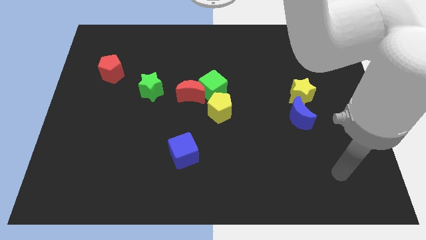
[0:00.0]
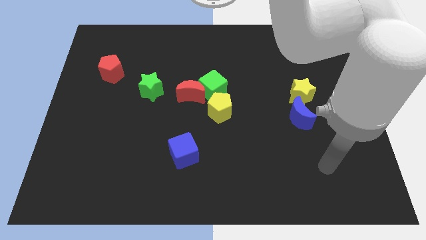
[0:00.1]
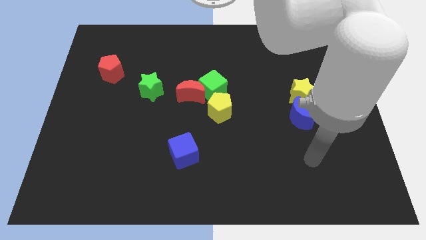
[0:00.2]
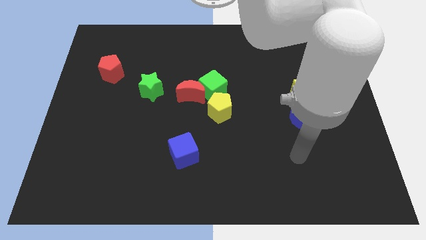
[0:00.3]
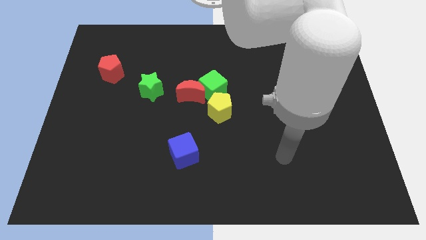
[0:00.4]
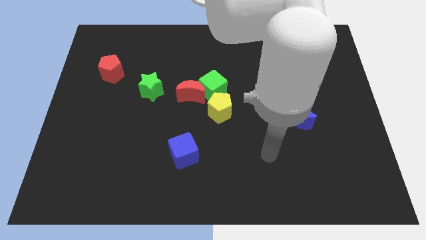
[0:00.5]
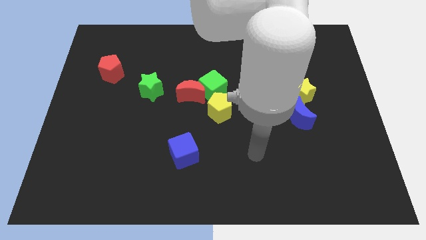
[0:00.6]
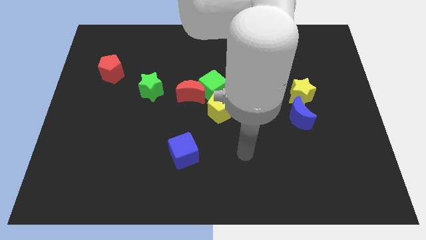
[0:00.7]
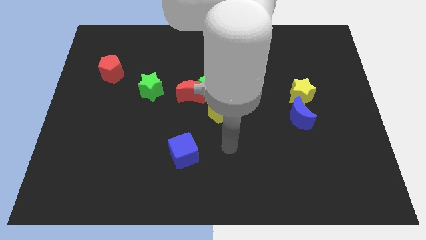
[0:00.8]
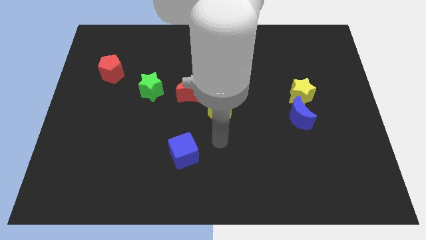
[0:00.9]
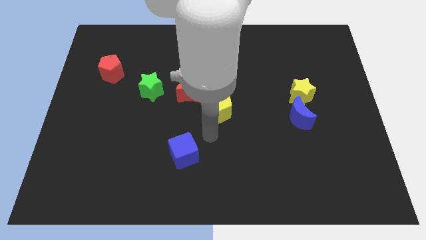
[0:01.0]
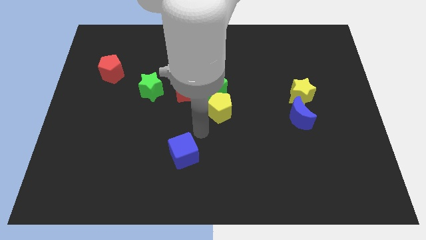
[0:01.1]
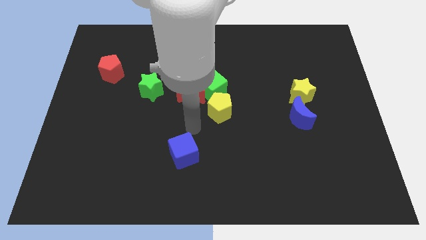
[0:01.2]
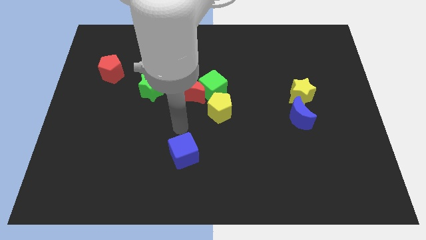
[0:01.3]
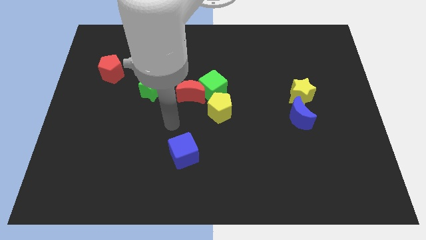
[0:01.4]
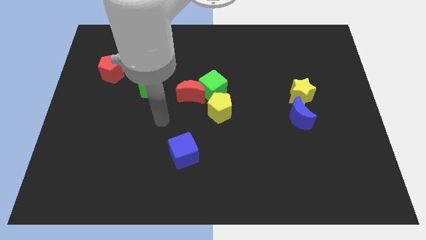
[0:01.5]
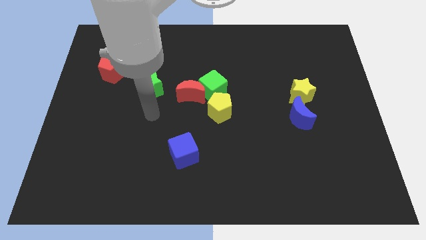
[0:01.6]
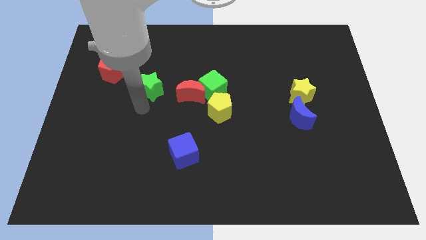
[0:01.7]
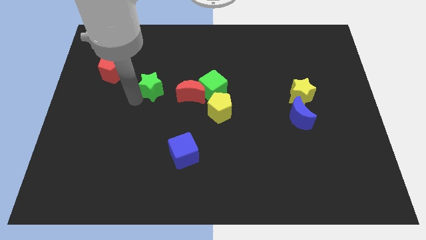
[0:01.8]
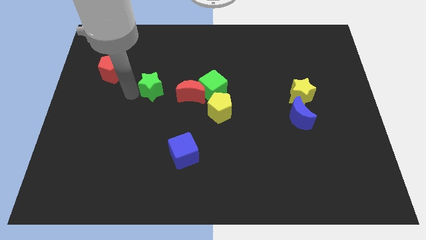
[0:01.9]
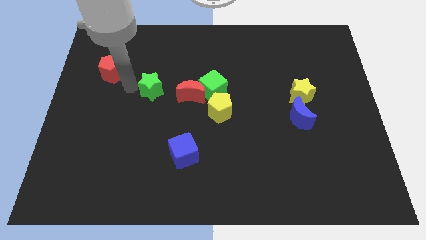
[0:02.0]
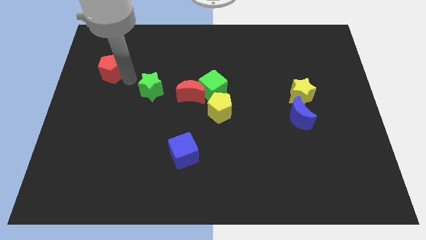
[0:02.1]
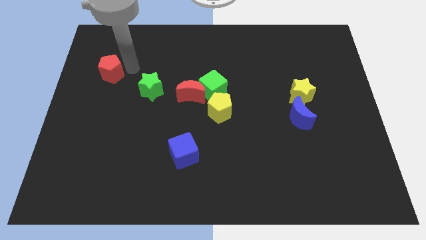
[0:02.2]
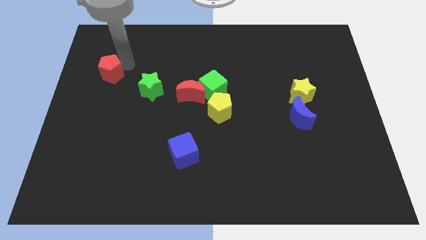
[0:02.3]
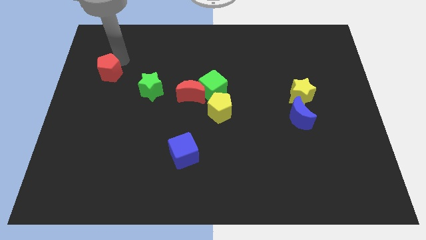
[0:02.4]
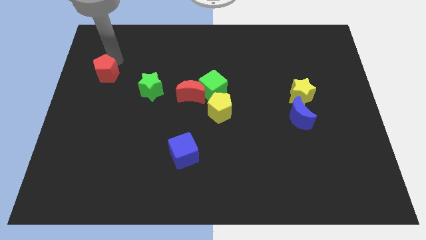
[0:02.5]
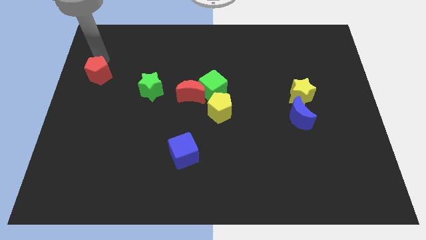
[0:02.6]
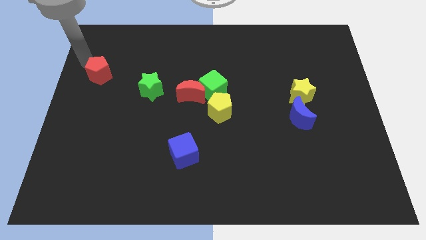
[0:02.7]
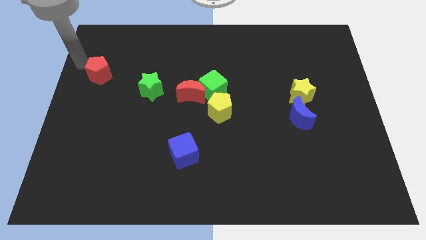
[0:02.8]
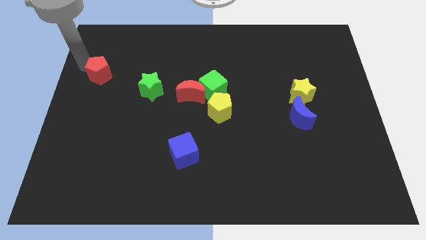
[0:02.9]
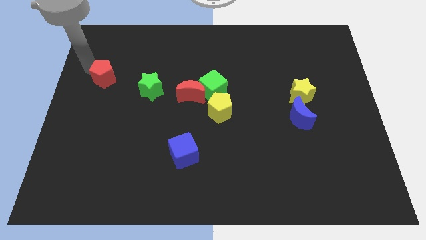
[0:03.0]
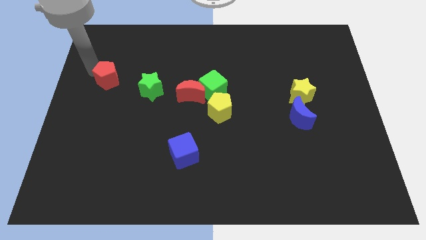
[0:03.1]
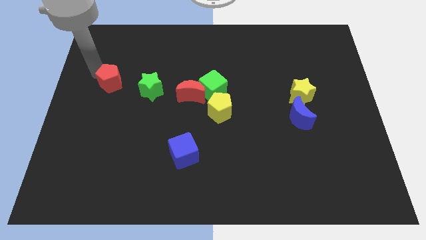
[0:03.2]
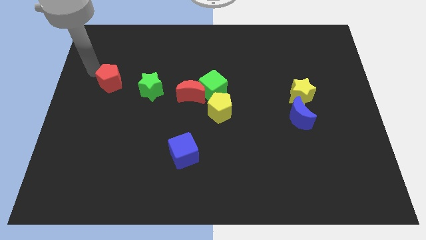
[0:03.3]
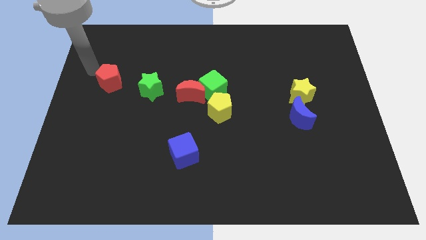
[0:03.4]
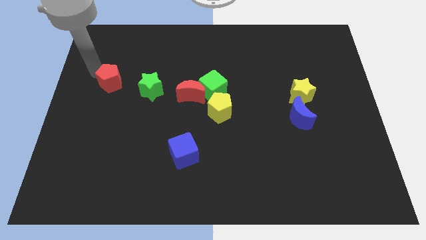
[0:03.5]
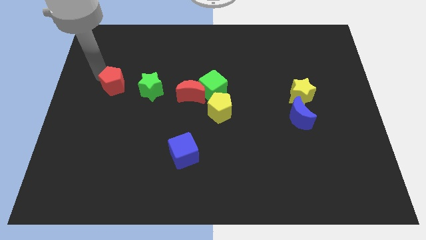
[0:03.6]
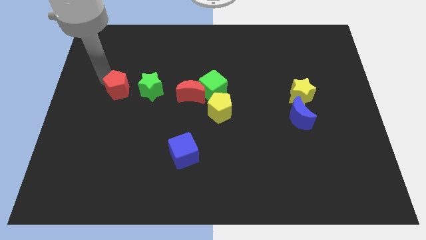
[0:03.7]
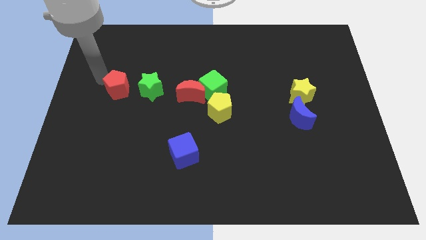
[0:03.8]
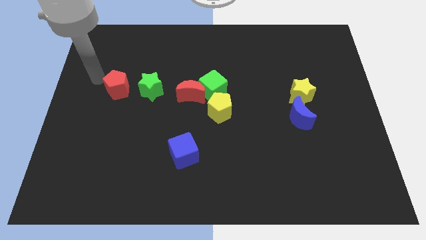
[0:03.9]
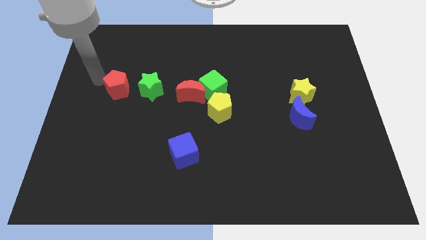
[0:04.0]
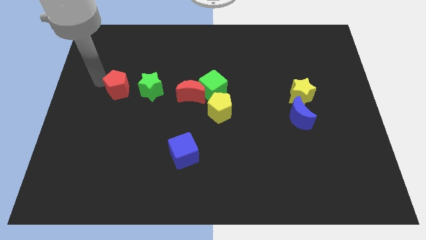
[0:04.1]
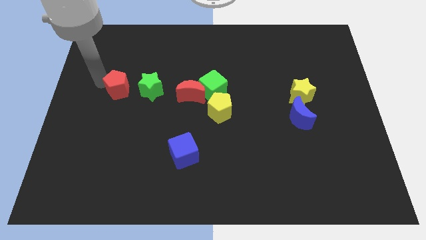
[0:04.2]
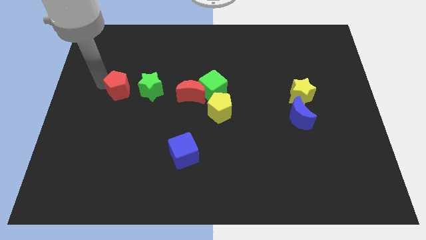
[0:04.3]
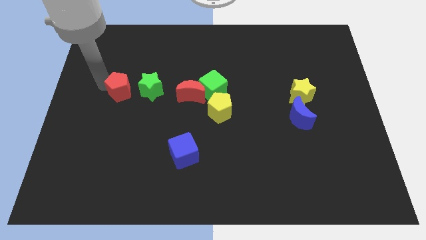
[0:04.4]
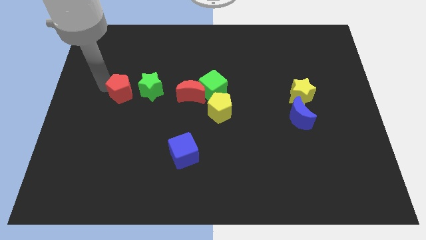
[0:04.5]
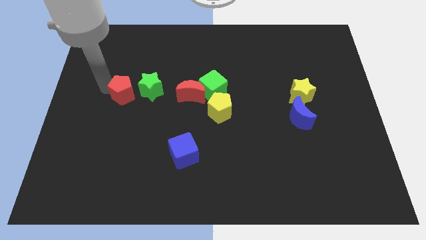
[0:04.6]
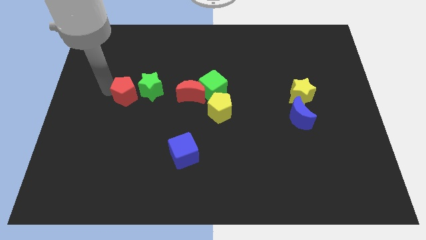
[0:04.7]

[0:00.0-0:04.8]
push the red pentagon to the left side of the red moon

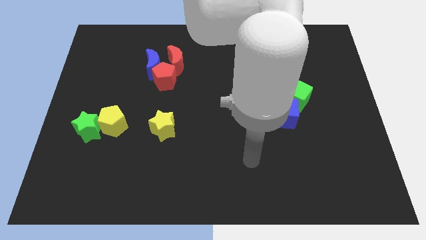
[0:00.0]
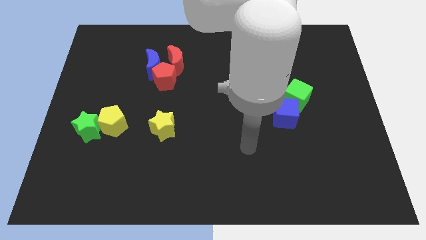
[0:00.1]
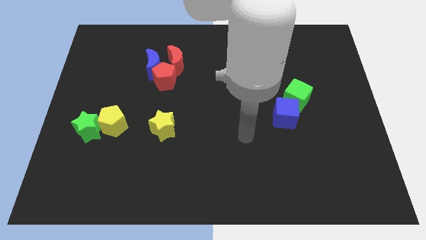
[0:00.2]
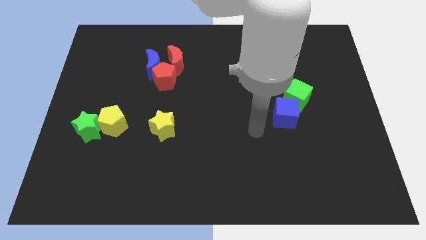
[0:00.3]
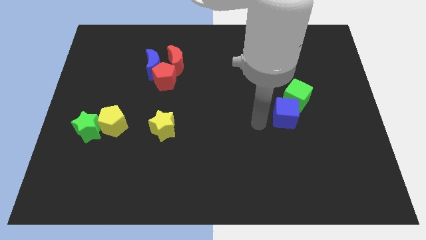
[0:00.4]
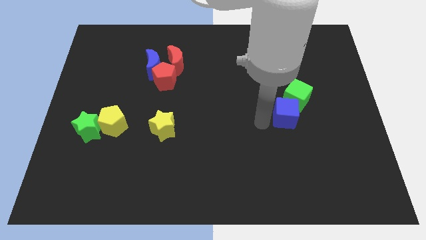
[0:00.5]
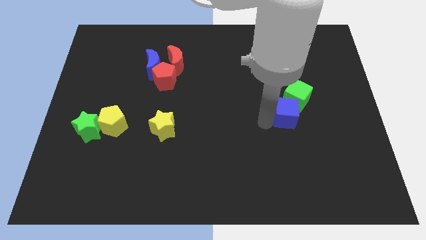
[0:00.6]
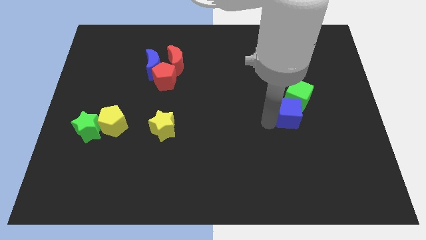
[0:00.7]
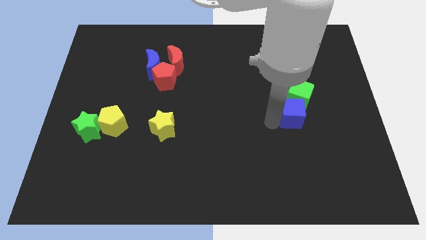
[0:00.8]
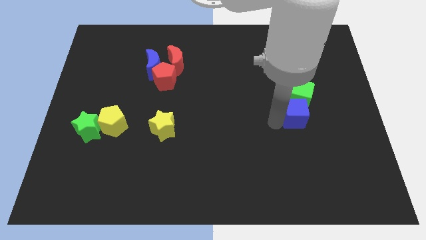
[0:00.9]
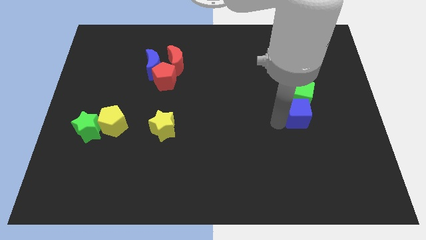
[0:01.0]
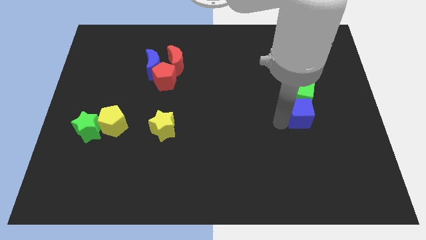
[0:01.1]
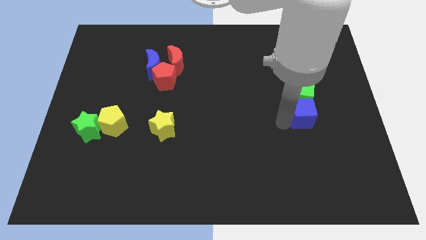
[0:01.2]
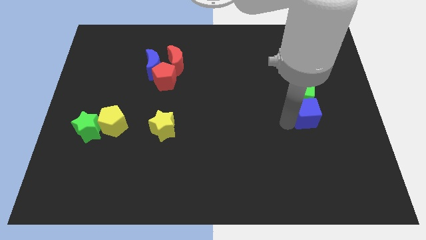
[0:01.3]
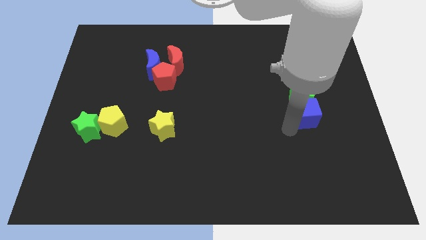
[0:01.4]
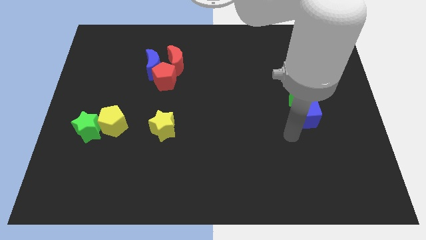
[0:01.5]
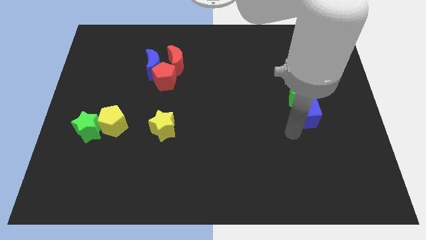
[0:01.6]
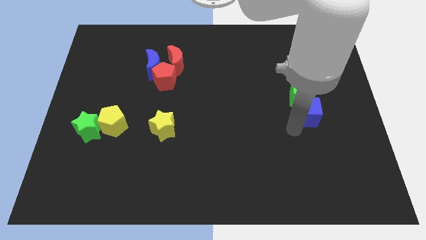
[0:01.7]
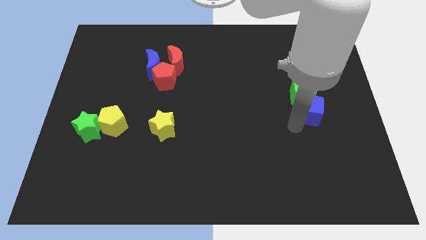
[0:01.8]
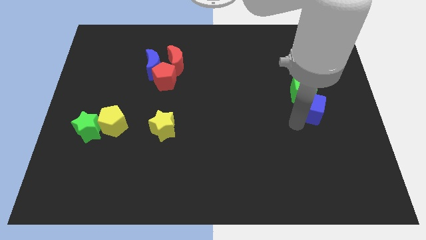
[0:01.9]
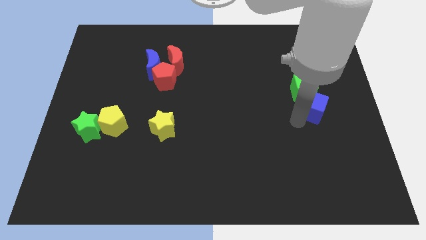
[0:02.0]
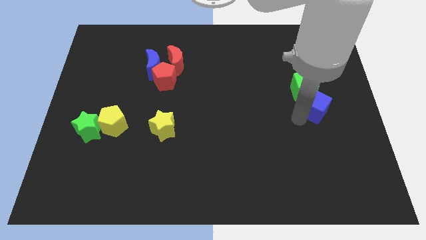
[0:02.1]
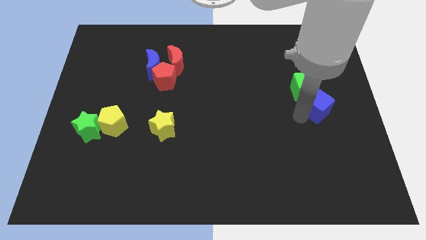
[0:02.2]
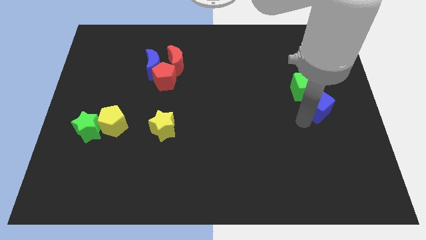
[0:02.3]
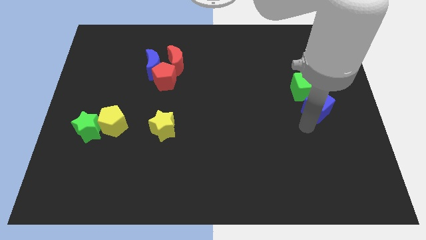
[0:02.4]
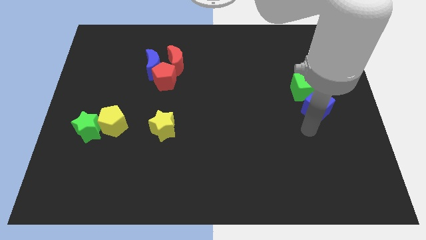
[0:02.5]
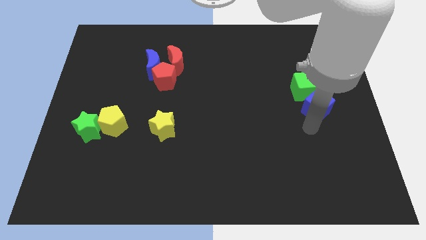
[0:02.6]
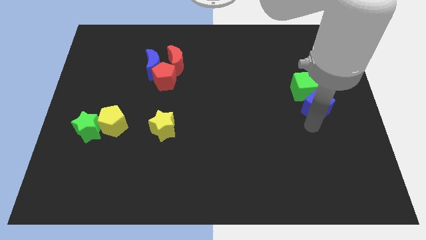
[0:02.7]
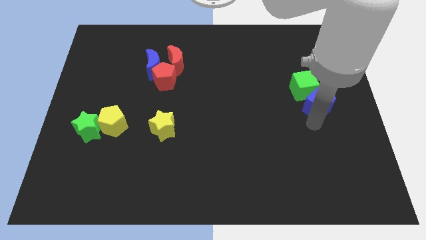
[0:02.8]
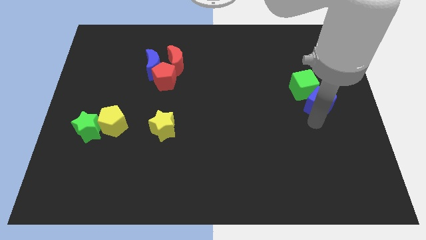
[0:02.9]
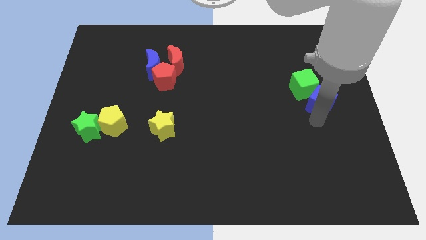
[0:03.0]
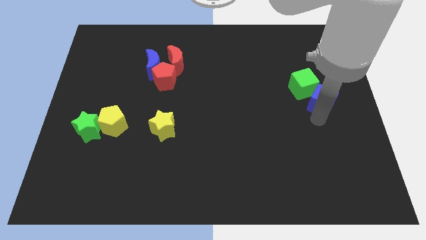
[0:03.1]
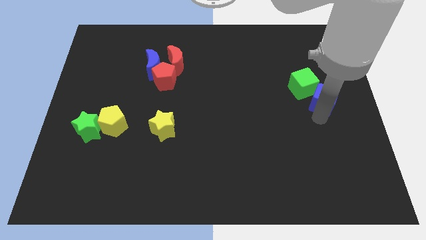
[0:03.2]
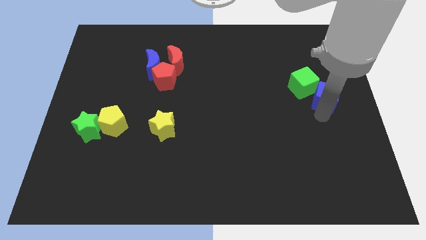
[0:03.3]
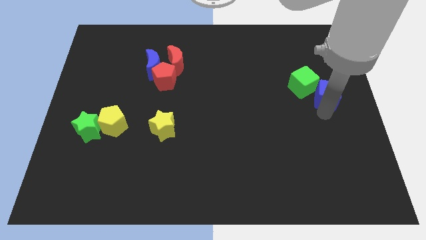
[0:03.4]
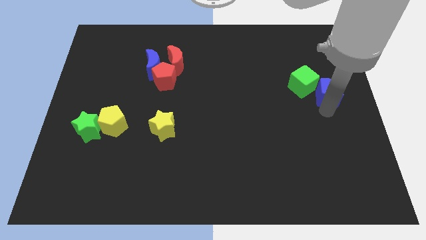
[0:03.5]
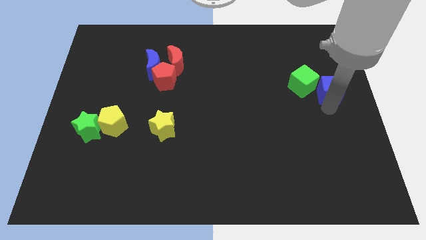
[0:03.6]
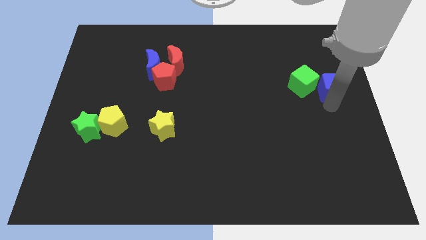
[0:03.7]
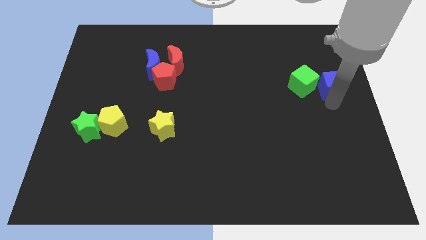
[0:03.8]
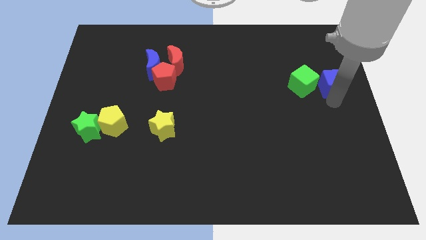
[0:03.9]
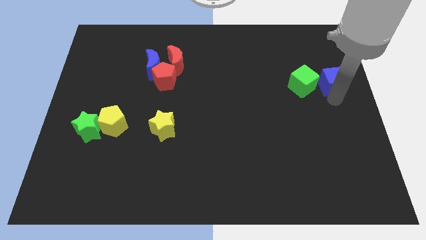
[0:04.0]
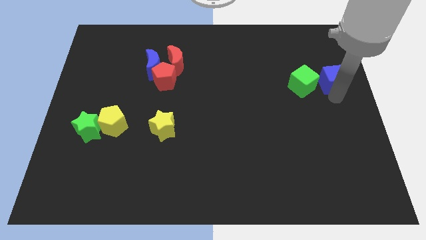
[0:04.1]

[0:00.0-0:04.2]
slide the blue cube to the top right of the green cube
